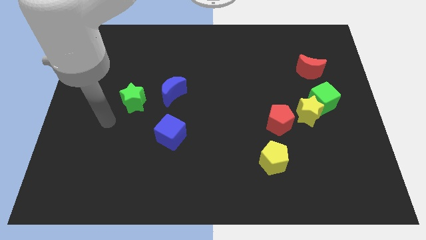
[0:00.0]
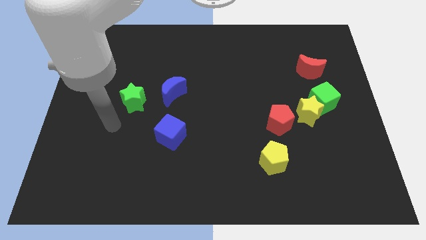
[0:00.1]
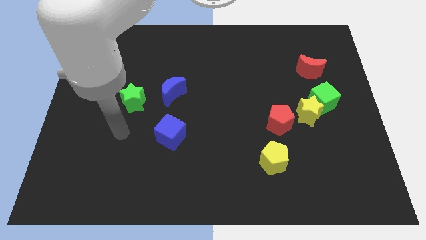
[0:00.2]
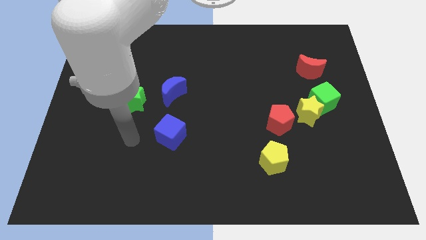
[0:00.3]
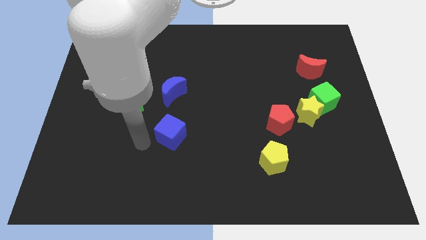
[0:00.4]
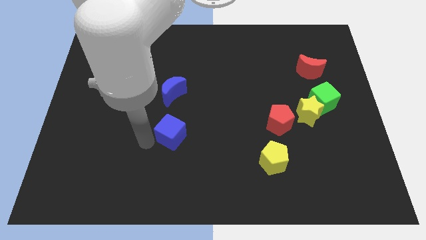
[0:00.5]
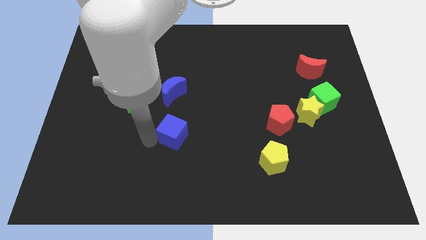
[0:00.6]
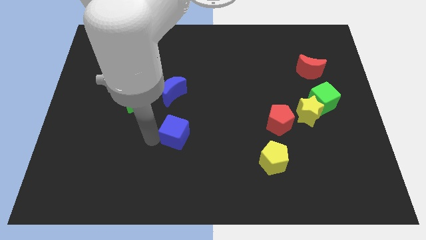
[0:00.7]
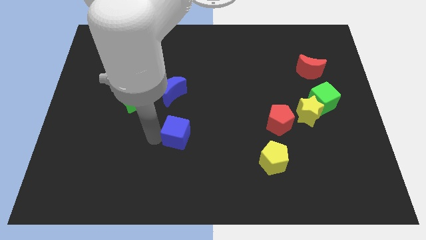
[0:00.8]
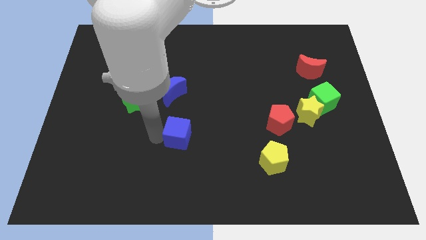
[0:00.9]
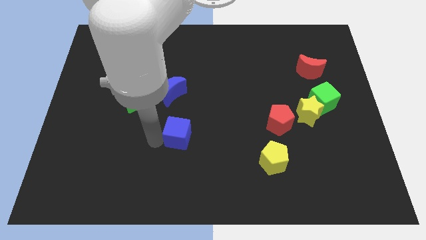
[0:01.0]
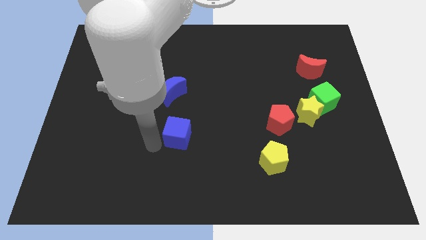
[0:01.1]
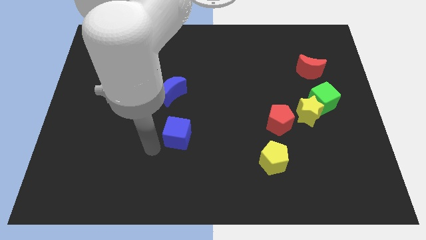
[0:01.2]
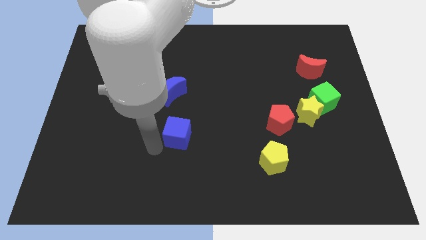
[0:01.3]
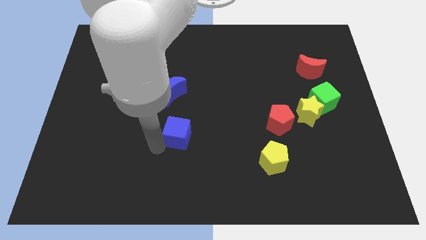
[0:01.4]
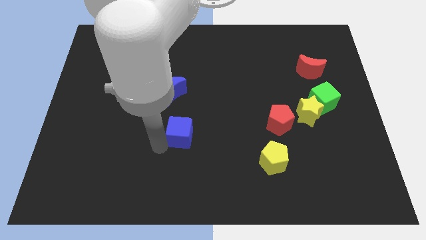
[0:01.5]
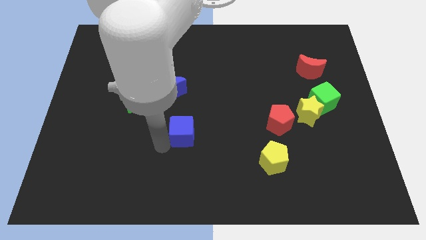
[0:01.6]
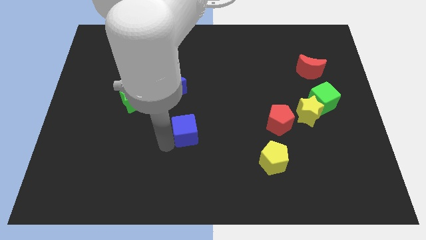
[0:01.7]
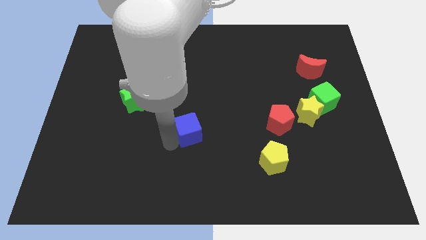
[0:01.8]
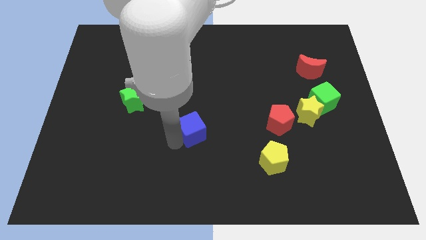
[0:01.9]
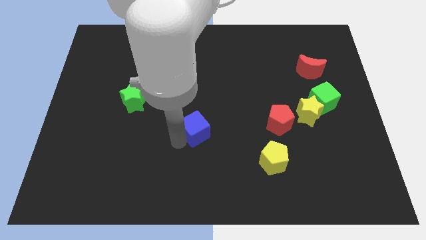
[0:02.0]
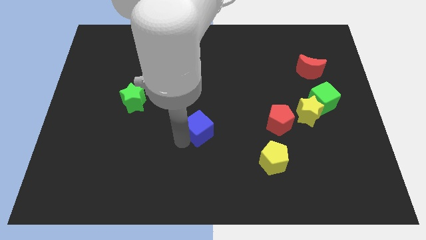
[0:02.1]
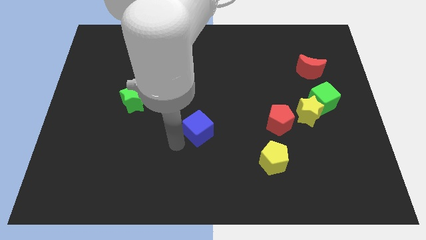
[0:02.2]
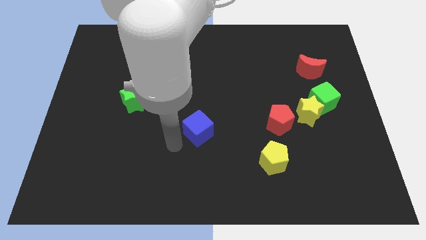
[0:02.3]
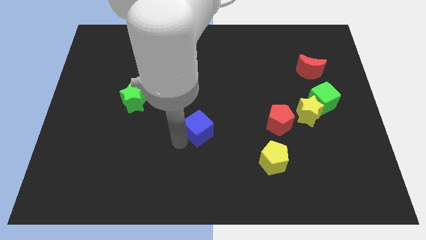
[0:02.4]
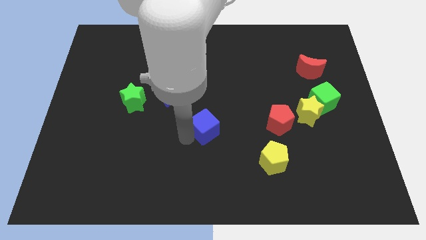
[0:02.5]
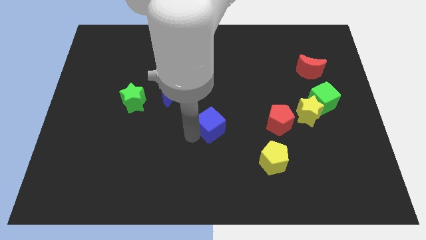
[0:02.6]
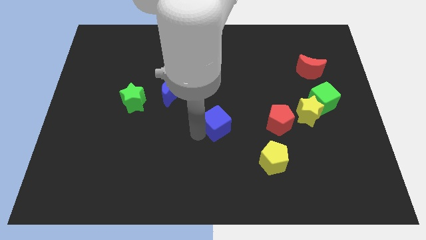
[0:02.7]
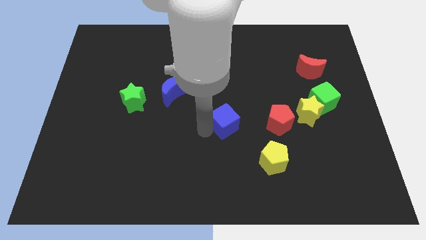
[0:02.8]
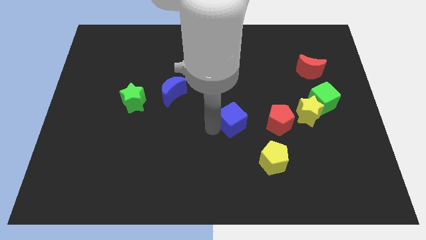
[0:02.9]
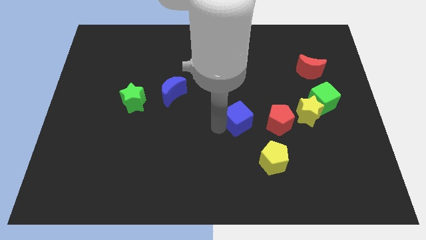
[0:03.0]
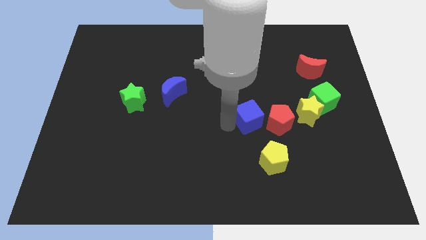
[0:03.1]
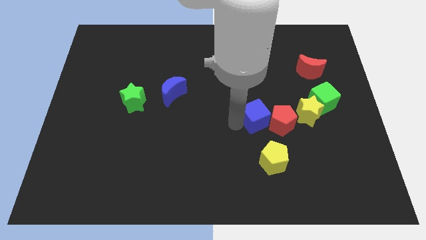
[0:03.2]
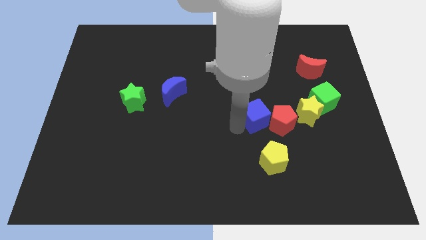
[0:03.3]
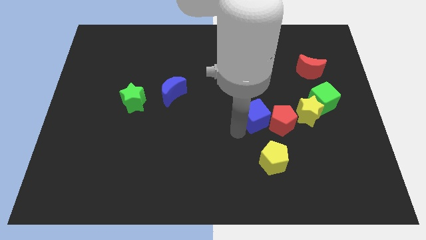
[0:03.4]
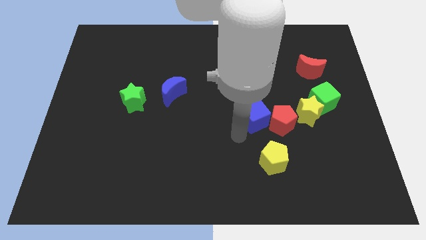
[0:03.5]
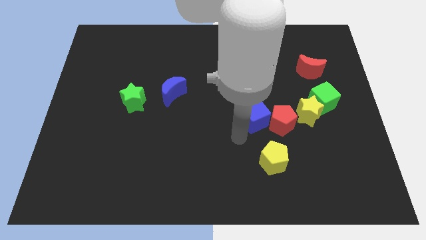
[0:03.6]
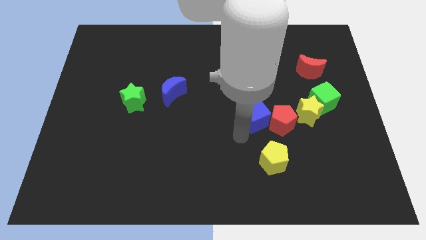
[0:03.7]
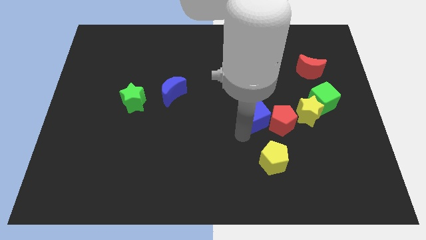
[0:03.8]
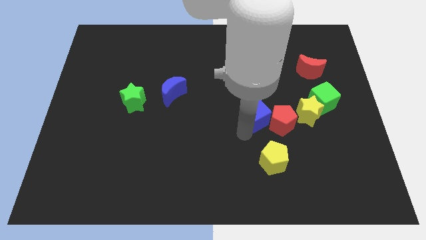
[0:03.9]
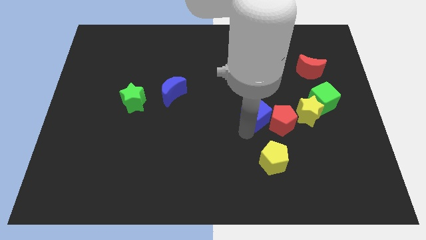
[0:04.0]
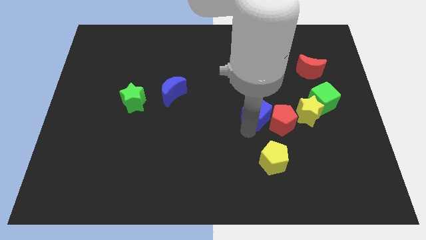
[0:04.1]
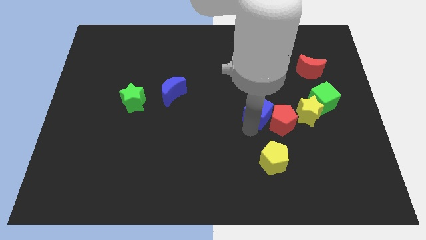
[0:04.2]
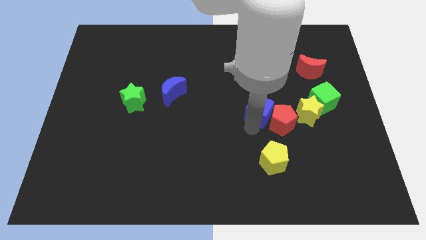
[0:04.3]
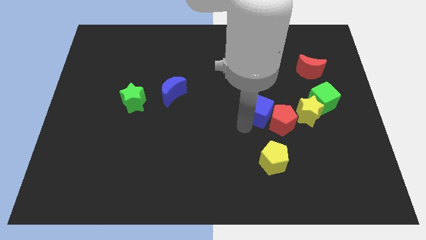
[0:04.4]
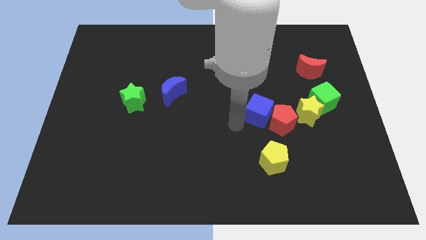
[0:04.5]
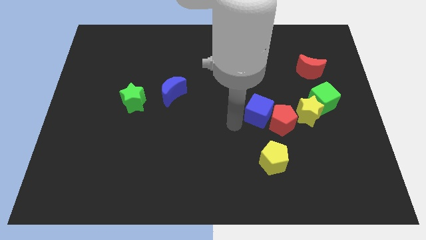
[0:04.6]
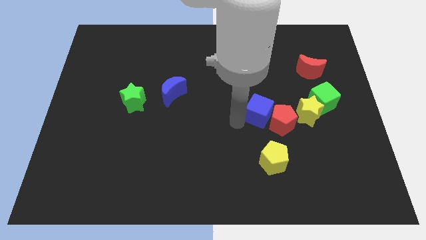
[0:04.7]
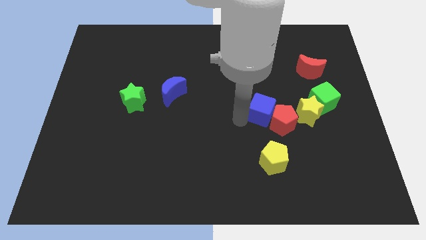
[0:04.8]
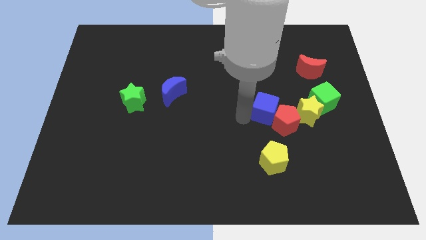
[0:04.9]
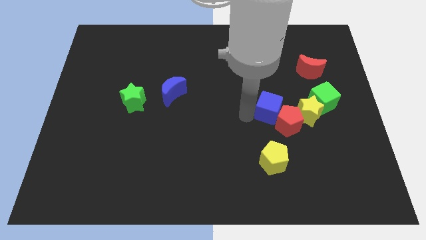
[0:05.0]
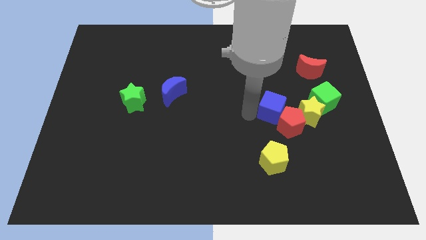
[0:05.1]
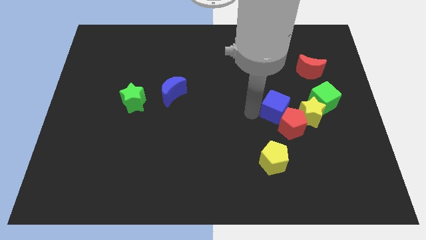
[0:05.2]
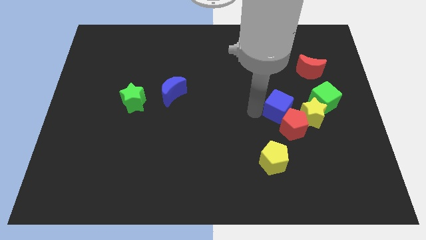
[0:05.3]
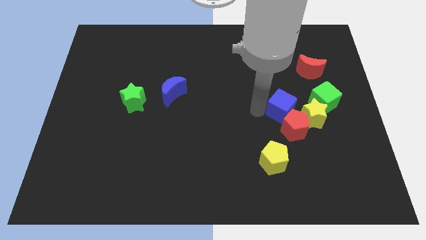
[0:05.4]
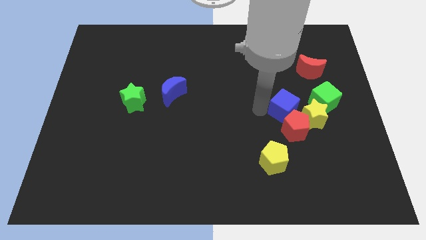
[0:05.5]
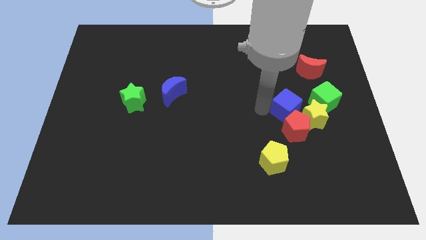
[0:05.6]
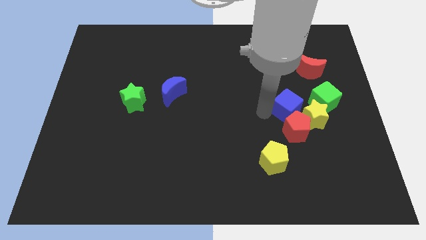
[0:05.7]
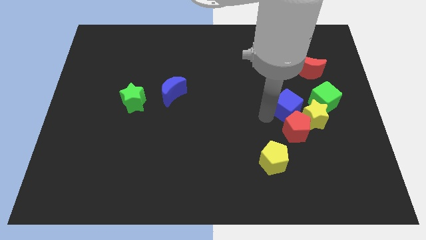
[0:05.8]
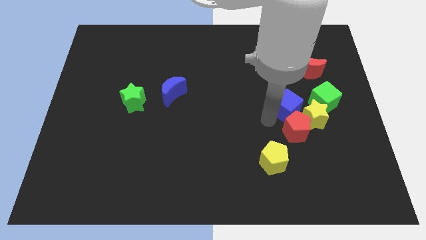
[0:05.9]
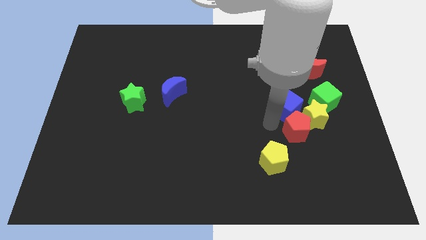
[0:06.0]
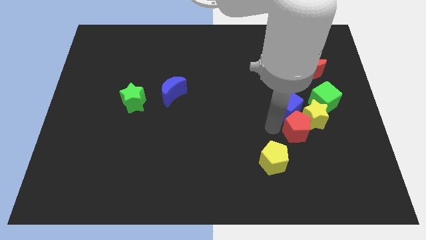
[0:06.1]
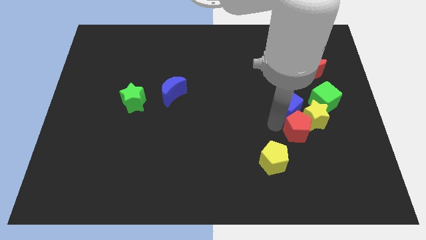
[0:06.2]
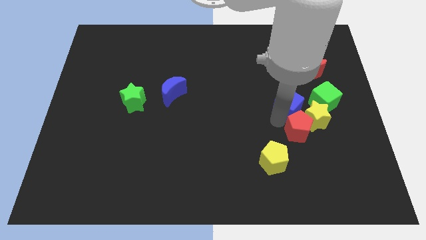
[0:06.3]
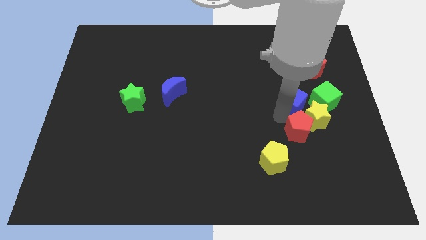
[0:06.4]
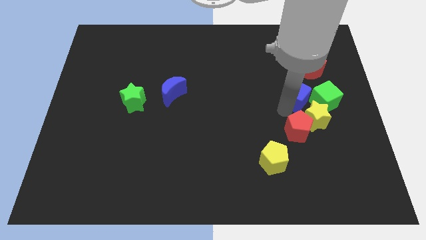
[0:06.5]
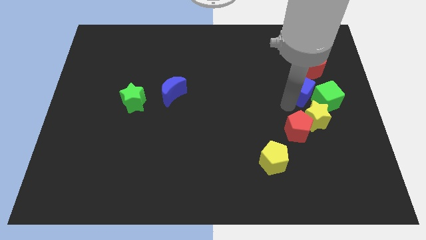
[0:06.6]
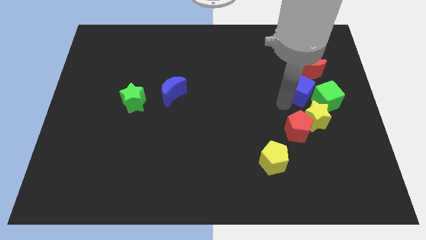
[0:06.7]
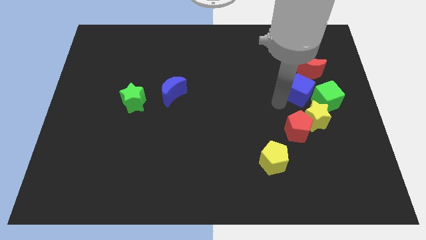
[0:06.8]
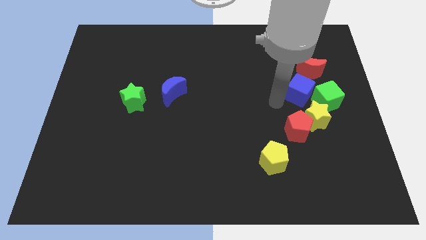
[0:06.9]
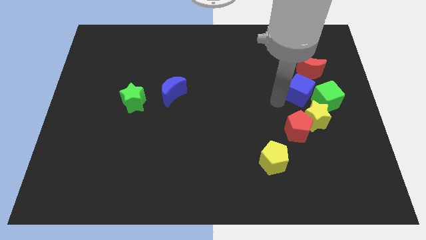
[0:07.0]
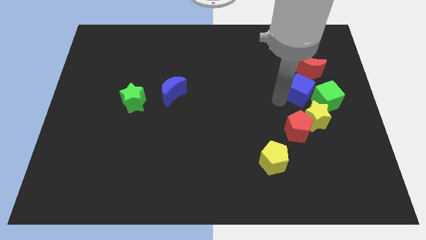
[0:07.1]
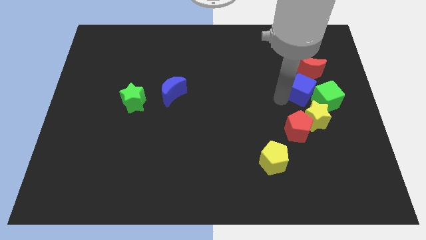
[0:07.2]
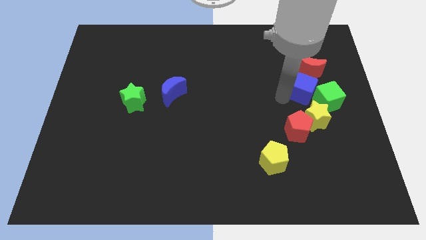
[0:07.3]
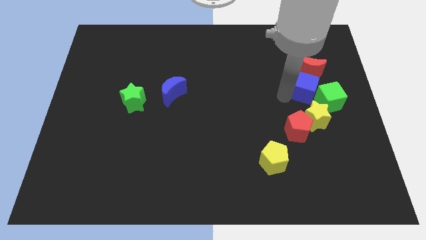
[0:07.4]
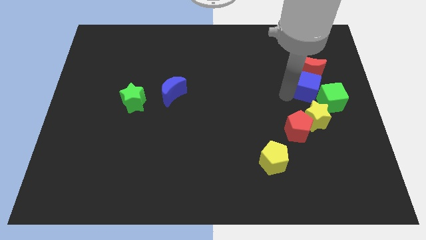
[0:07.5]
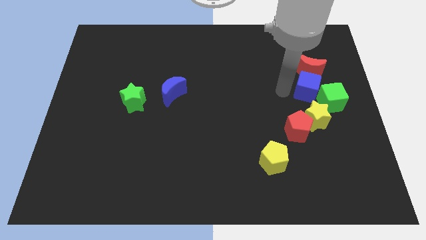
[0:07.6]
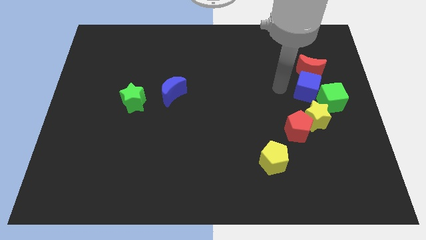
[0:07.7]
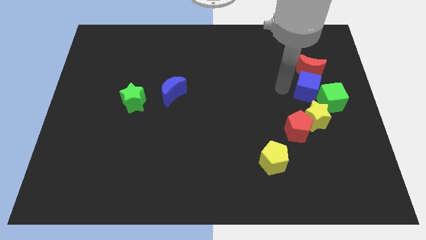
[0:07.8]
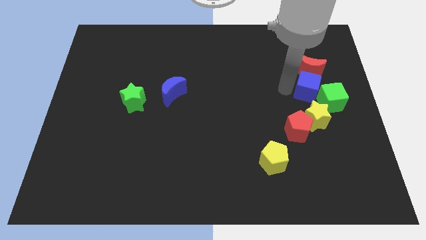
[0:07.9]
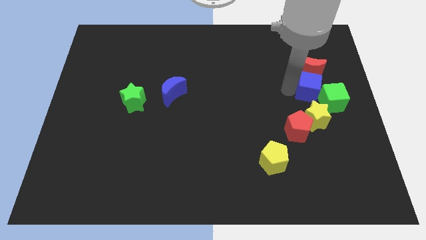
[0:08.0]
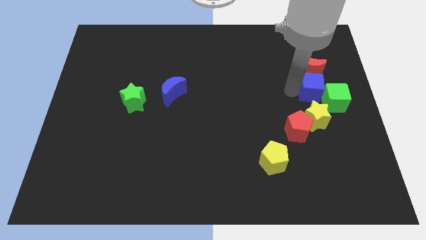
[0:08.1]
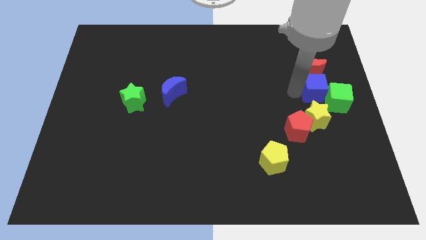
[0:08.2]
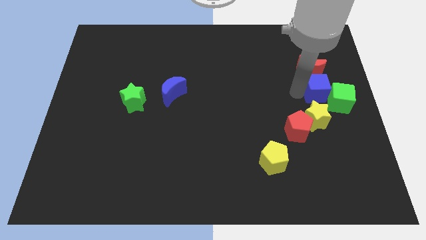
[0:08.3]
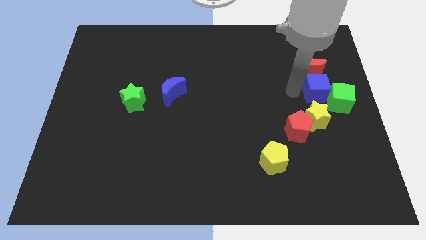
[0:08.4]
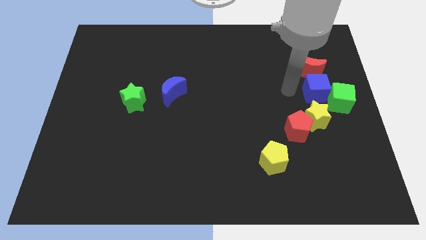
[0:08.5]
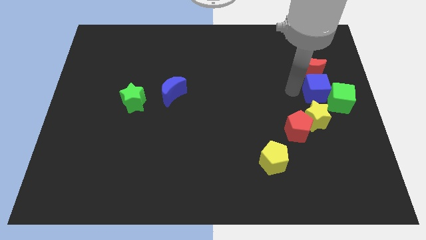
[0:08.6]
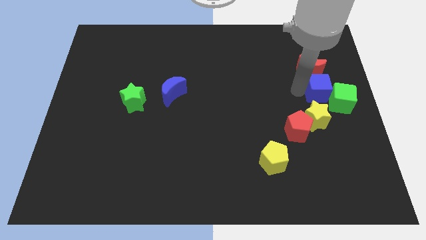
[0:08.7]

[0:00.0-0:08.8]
slide the blue cube to the center right
